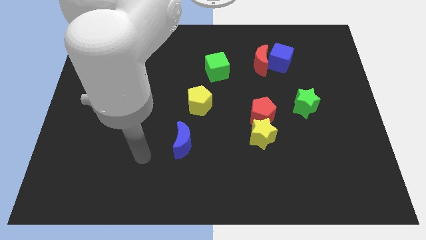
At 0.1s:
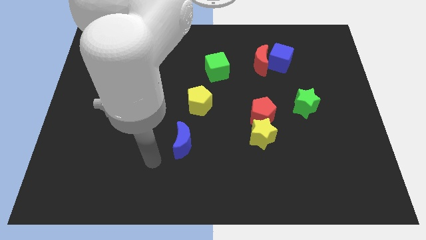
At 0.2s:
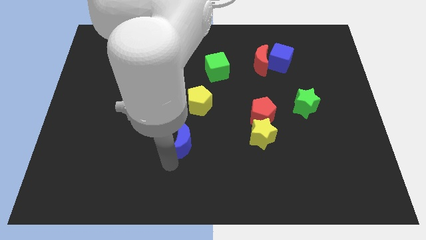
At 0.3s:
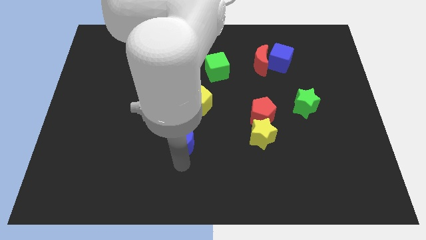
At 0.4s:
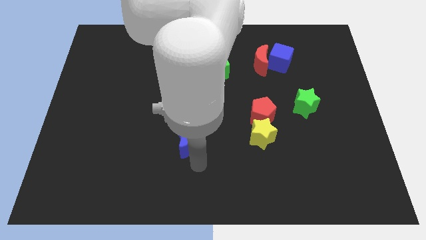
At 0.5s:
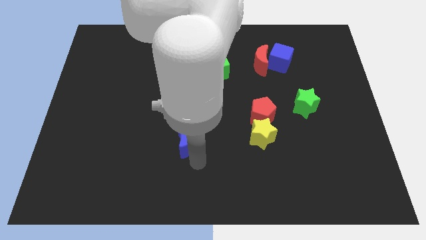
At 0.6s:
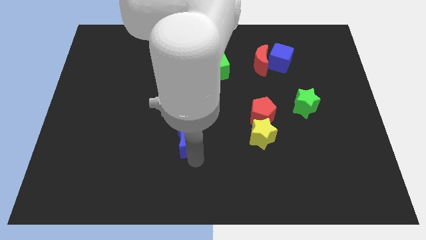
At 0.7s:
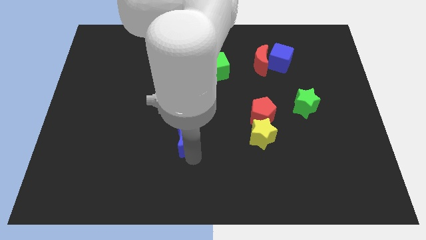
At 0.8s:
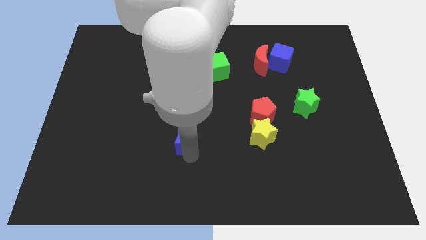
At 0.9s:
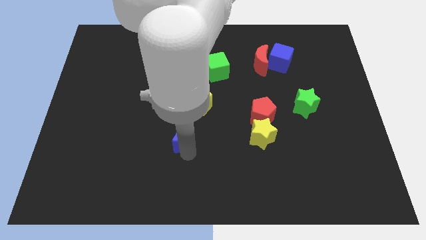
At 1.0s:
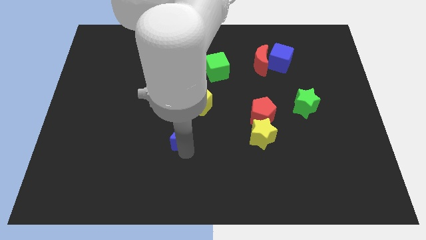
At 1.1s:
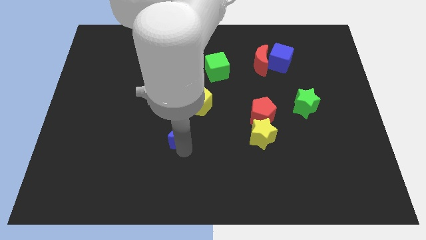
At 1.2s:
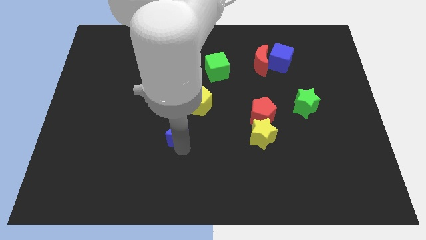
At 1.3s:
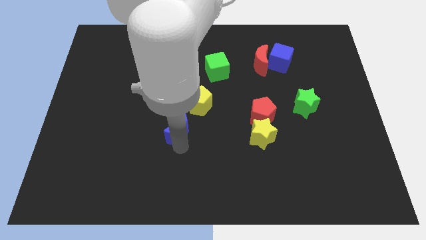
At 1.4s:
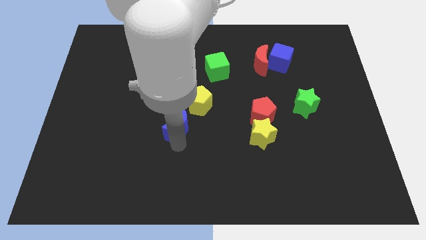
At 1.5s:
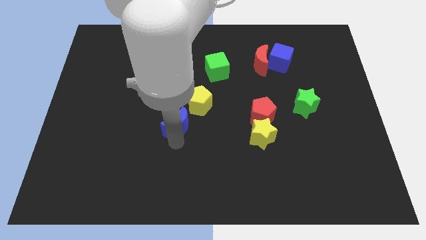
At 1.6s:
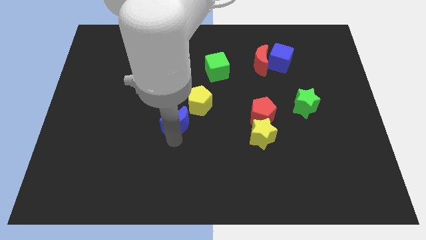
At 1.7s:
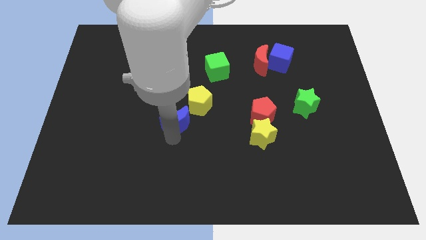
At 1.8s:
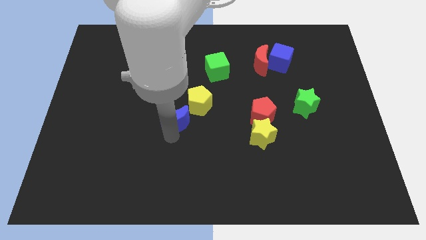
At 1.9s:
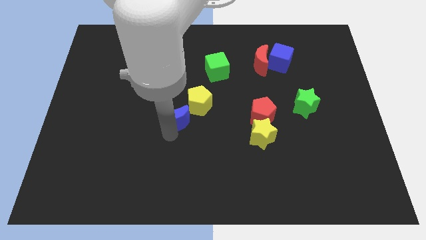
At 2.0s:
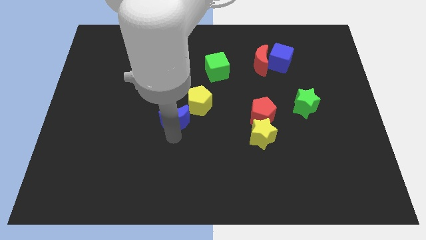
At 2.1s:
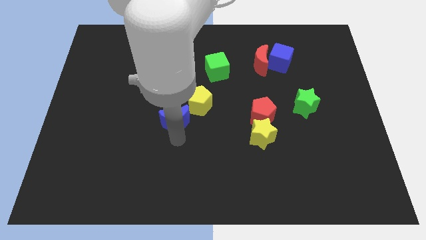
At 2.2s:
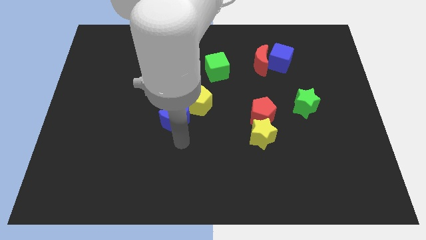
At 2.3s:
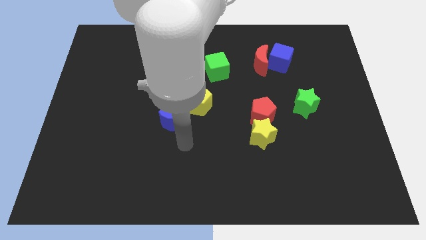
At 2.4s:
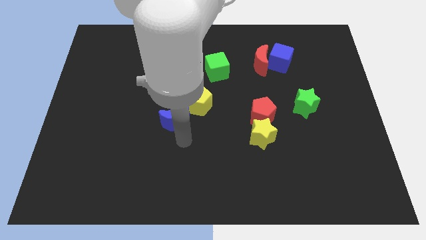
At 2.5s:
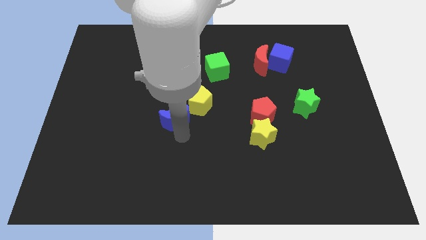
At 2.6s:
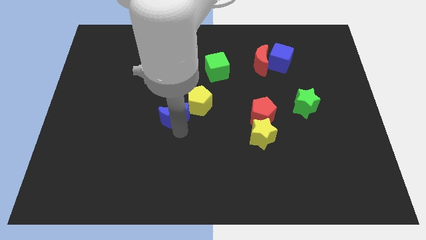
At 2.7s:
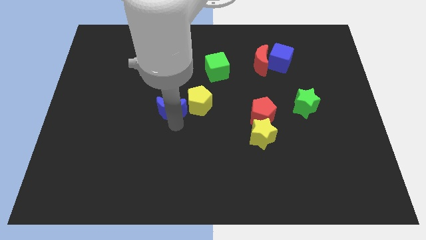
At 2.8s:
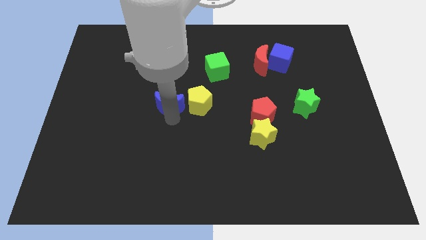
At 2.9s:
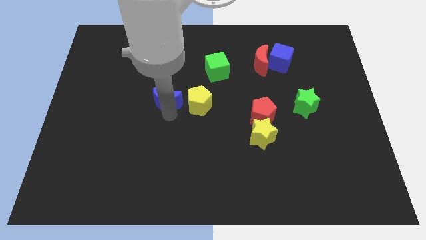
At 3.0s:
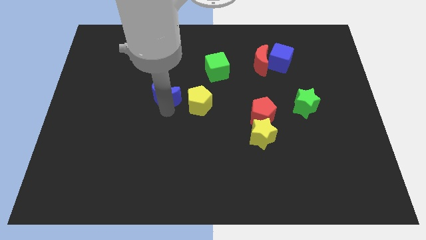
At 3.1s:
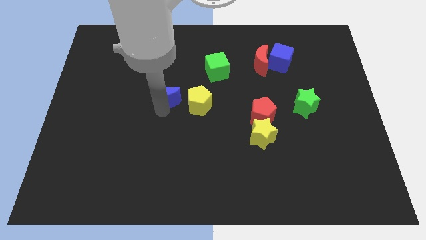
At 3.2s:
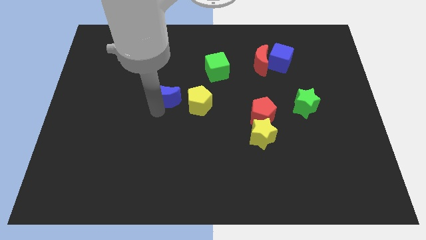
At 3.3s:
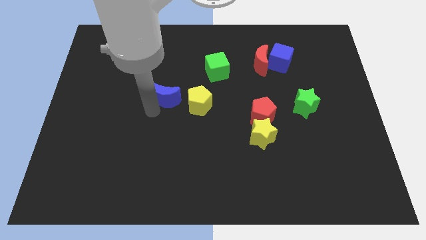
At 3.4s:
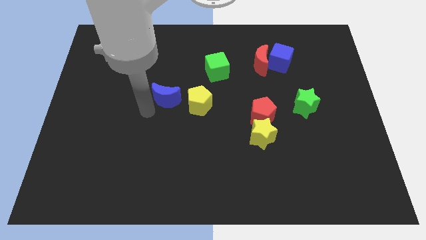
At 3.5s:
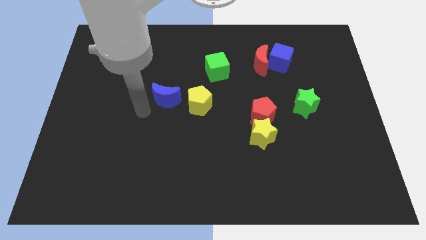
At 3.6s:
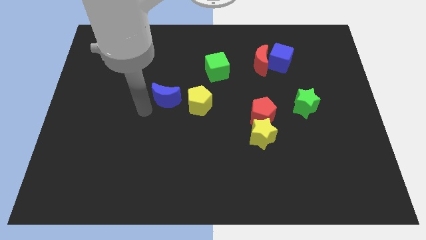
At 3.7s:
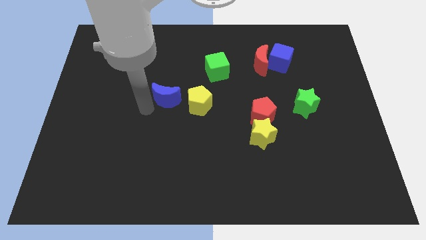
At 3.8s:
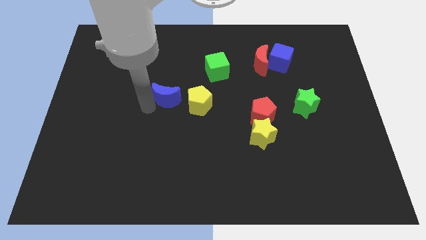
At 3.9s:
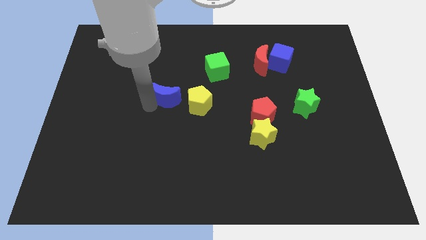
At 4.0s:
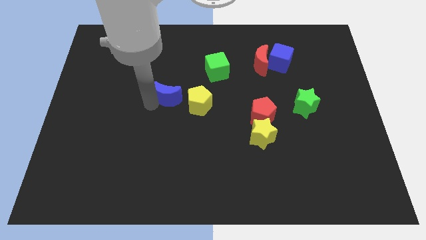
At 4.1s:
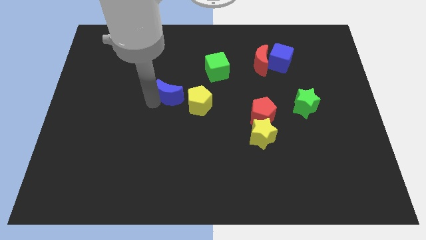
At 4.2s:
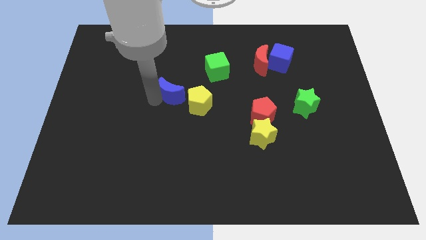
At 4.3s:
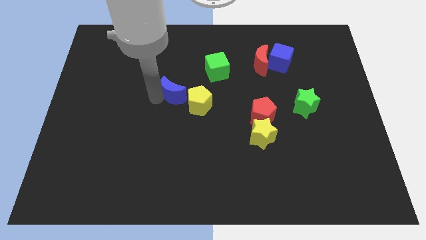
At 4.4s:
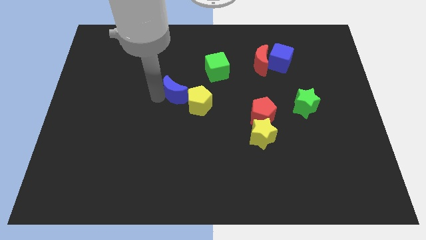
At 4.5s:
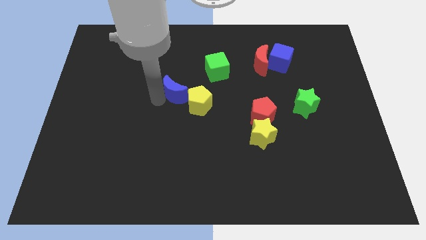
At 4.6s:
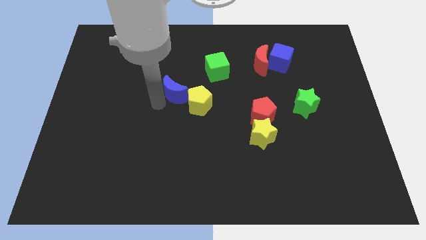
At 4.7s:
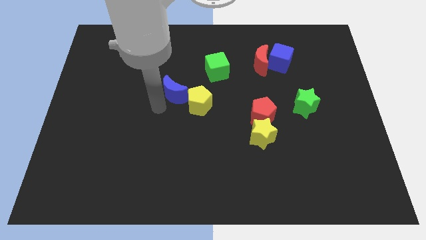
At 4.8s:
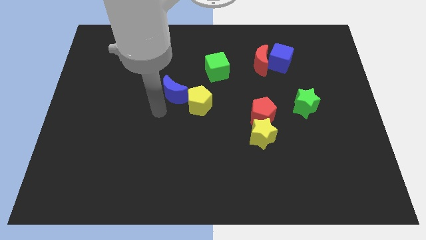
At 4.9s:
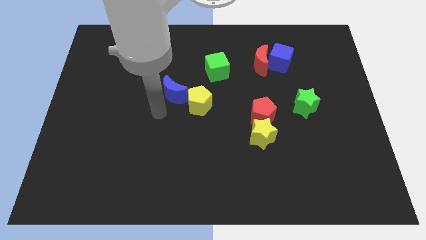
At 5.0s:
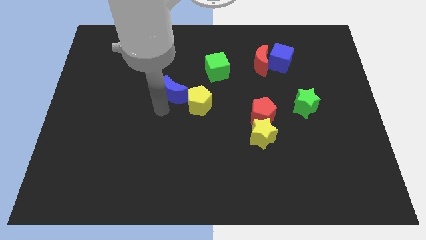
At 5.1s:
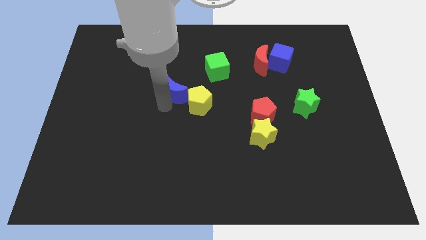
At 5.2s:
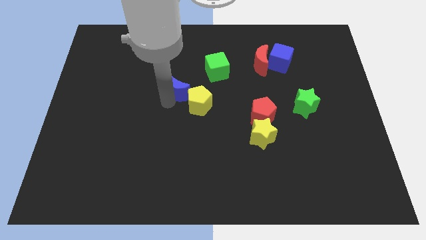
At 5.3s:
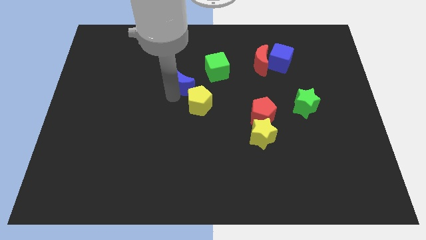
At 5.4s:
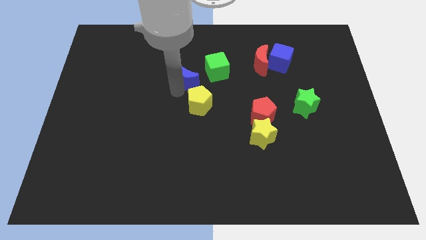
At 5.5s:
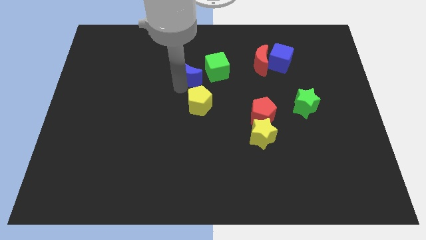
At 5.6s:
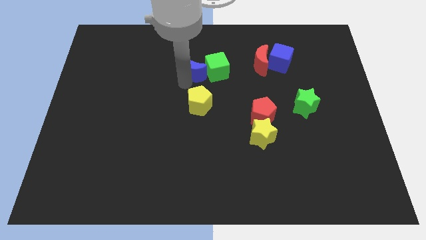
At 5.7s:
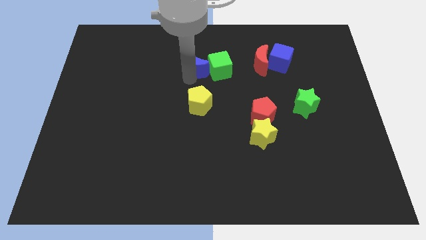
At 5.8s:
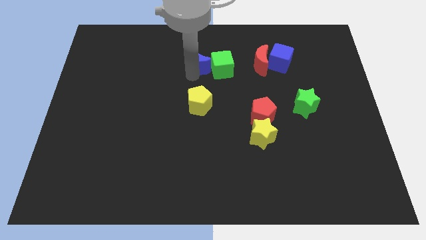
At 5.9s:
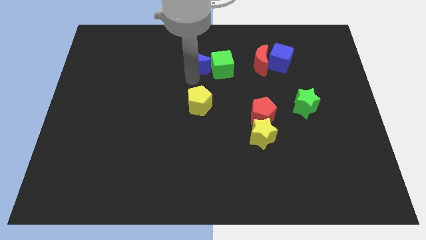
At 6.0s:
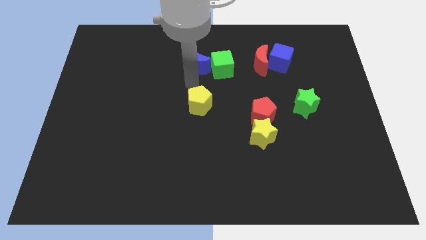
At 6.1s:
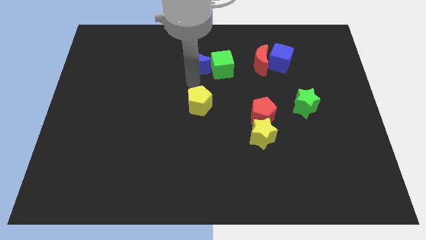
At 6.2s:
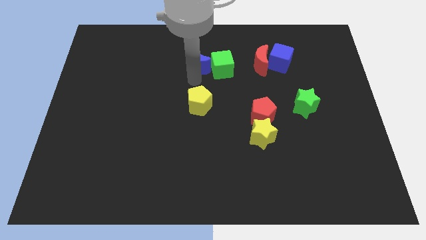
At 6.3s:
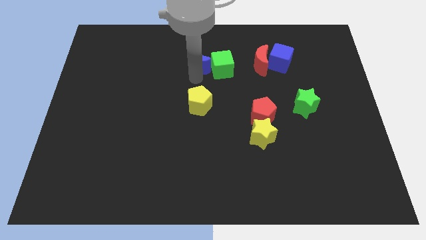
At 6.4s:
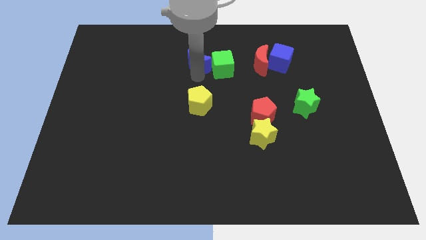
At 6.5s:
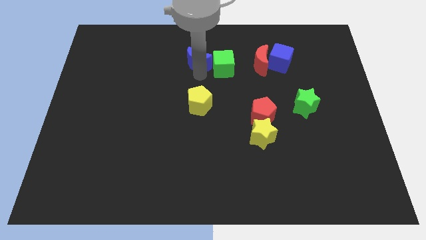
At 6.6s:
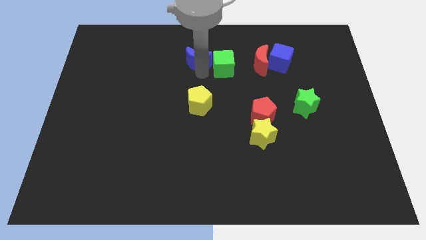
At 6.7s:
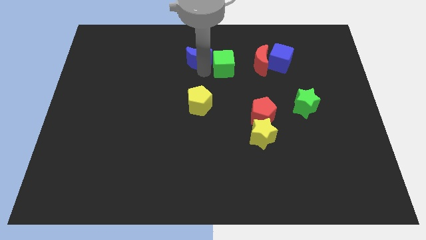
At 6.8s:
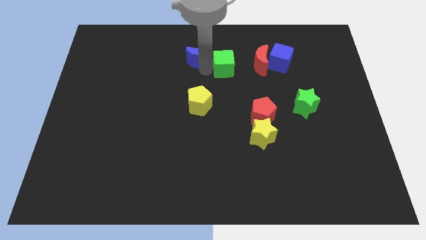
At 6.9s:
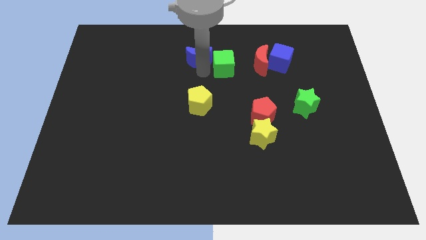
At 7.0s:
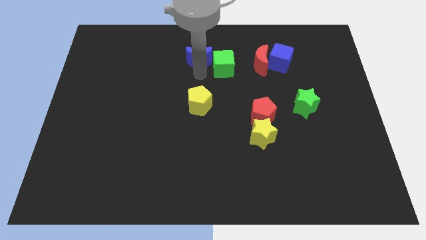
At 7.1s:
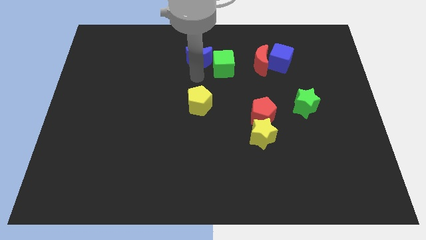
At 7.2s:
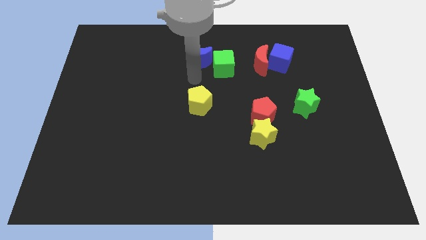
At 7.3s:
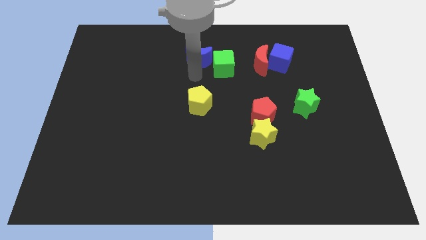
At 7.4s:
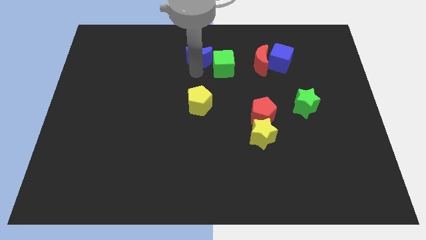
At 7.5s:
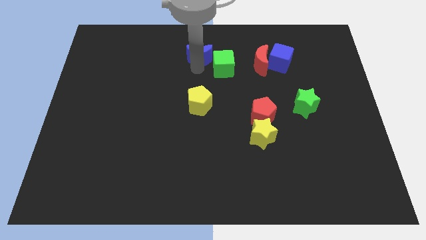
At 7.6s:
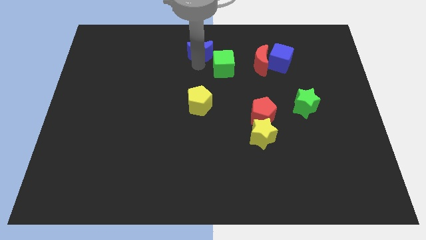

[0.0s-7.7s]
move the blue moon to the top
